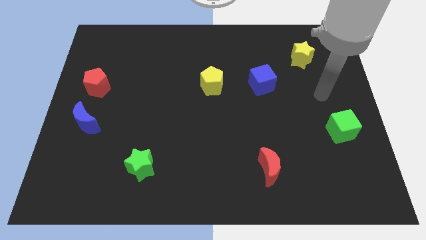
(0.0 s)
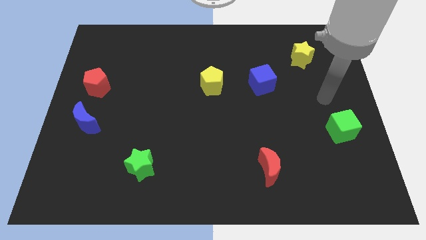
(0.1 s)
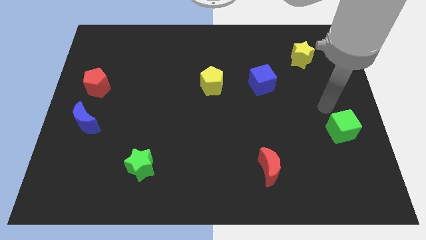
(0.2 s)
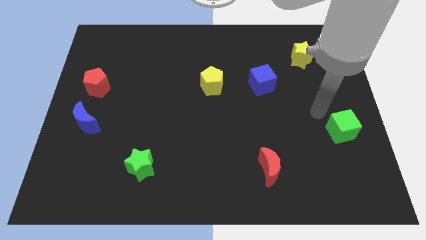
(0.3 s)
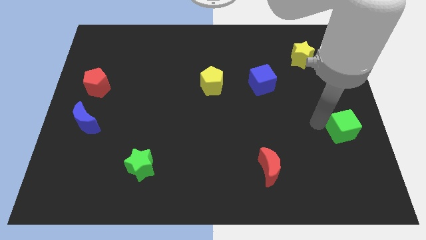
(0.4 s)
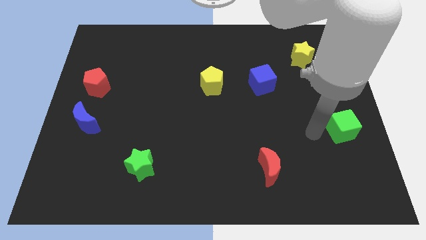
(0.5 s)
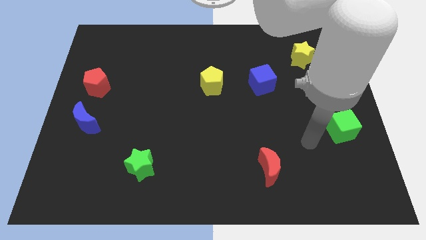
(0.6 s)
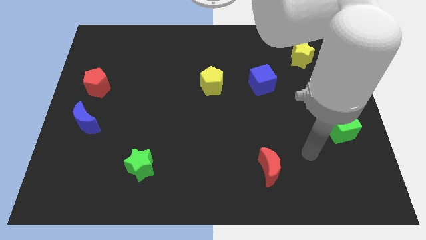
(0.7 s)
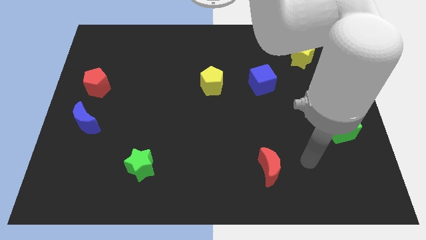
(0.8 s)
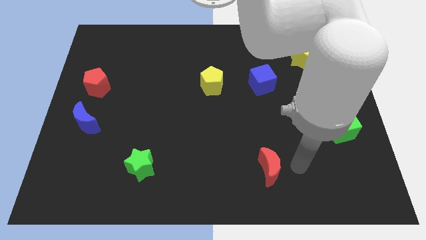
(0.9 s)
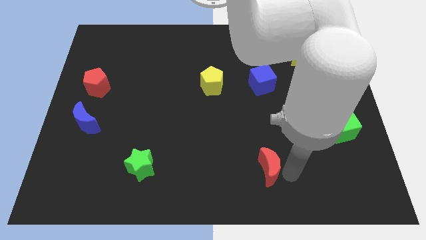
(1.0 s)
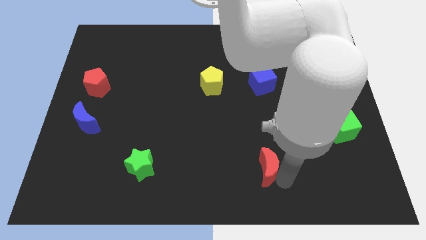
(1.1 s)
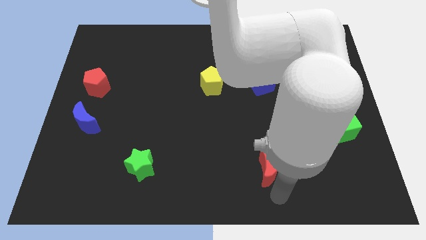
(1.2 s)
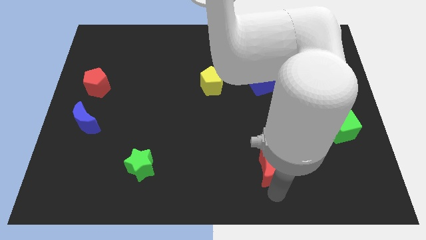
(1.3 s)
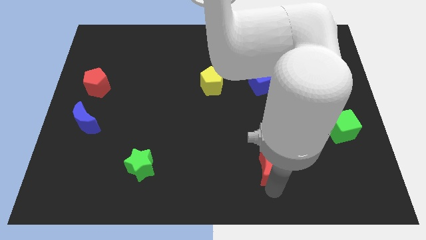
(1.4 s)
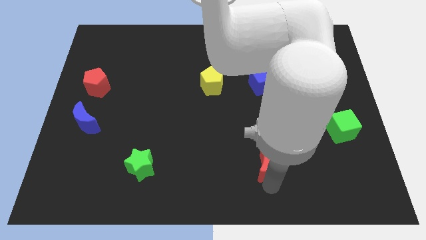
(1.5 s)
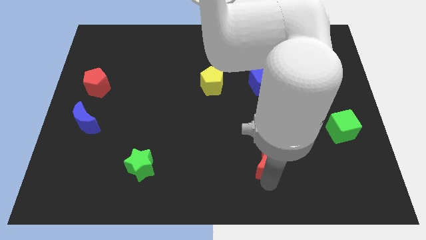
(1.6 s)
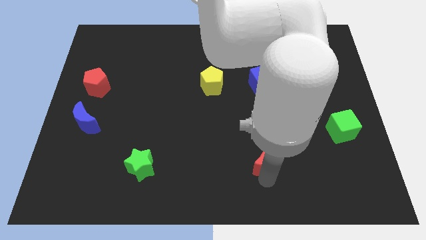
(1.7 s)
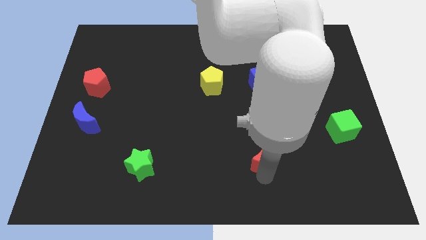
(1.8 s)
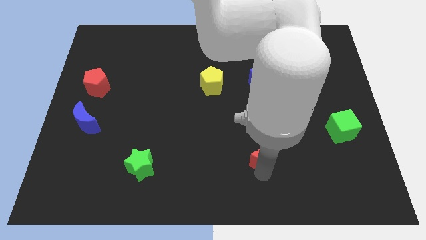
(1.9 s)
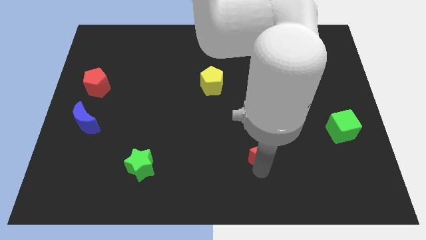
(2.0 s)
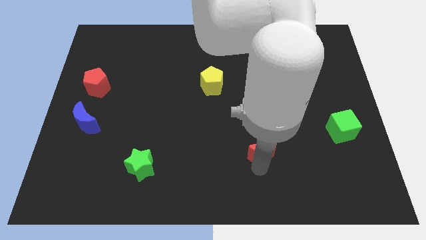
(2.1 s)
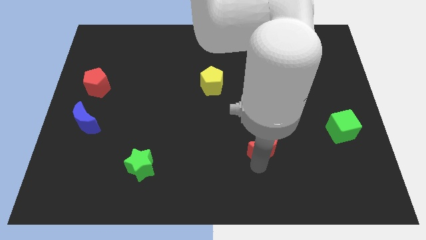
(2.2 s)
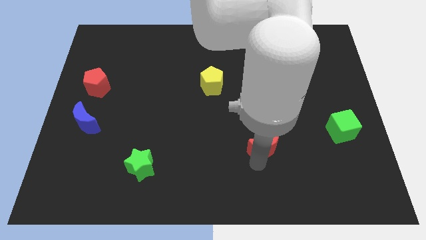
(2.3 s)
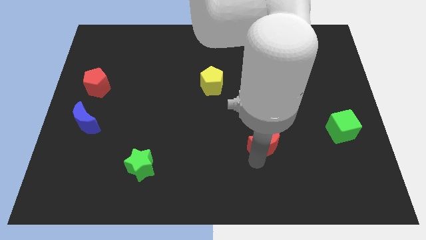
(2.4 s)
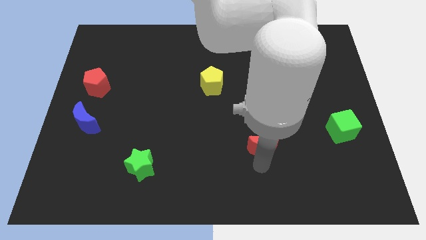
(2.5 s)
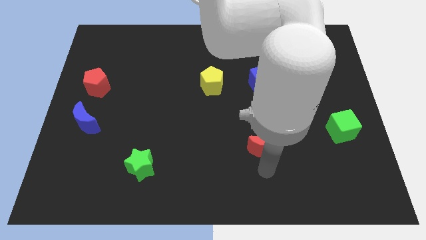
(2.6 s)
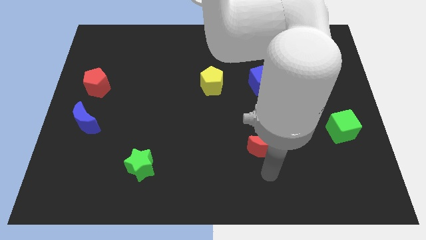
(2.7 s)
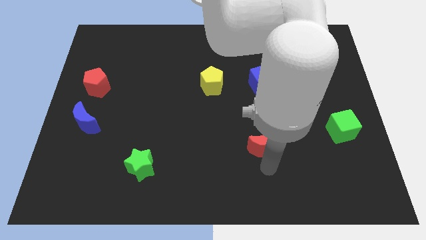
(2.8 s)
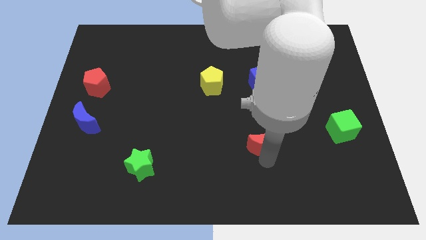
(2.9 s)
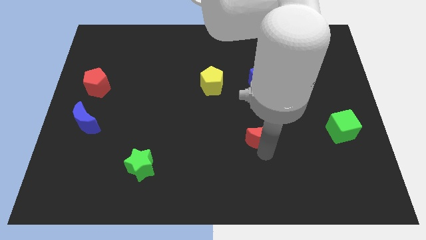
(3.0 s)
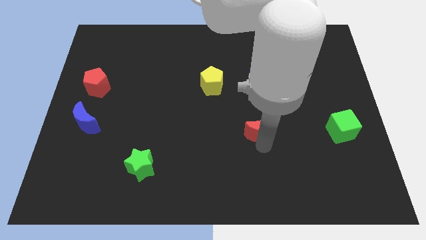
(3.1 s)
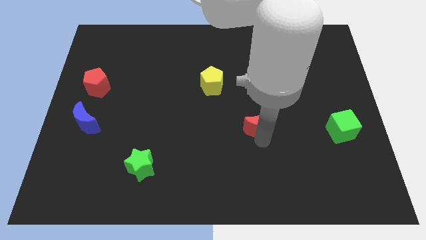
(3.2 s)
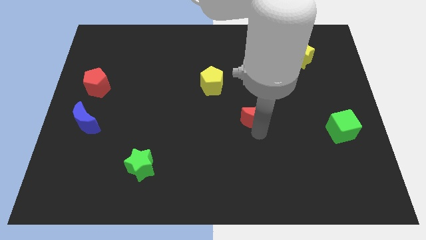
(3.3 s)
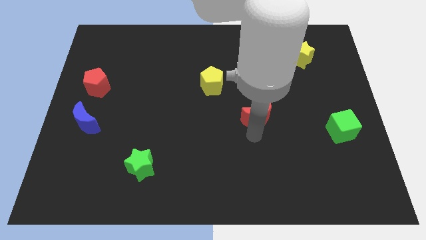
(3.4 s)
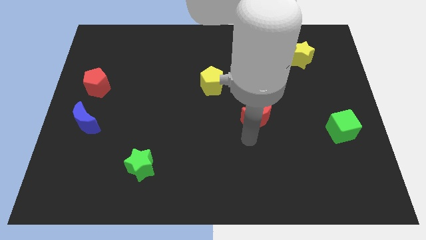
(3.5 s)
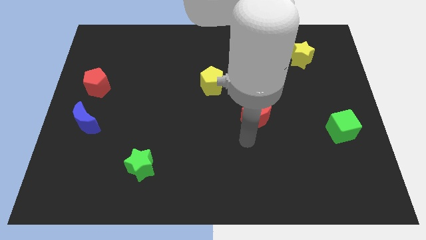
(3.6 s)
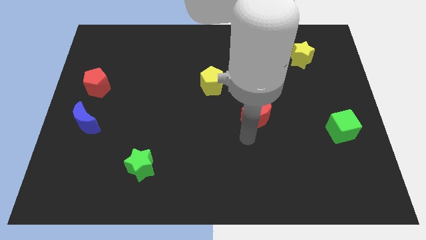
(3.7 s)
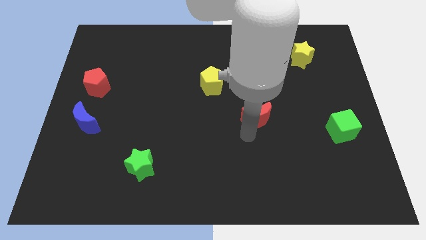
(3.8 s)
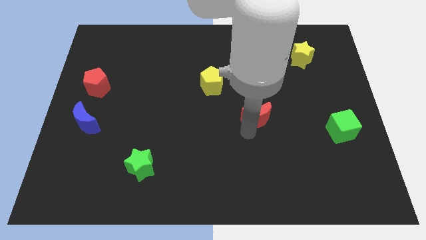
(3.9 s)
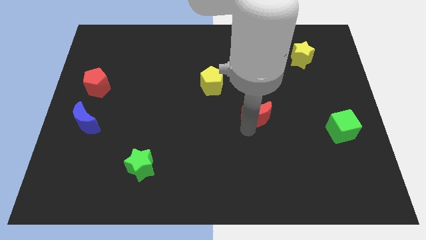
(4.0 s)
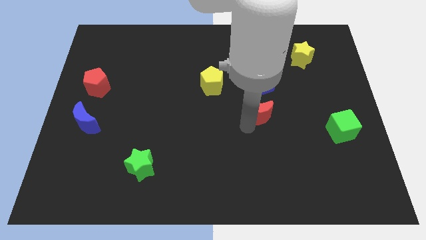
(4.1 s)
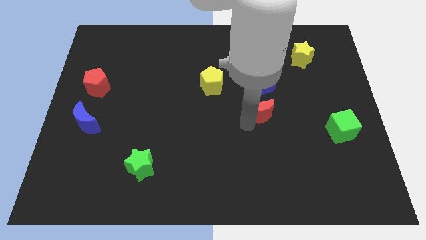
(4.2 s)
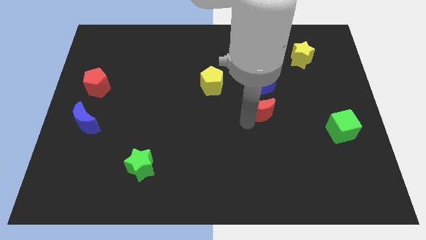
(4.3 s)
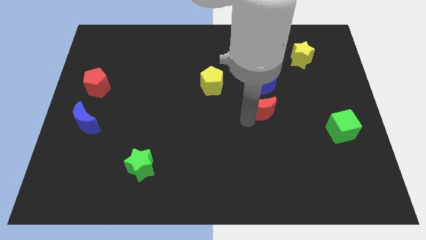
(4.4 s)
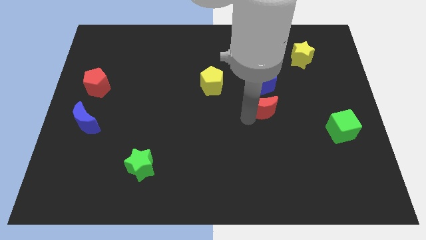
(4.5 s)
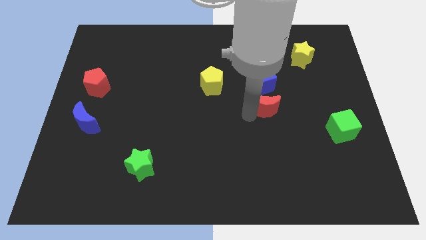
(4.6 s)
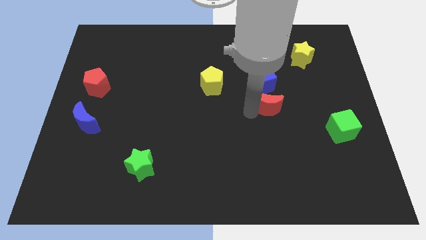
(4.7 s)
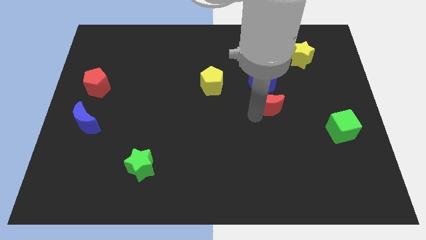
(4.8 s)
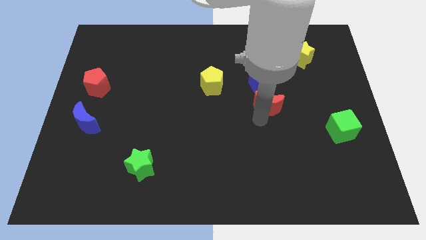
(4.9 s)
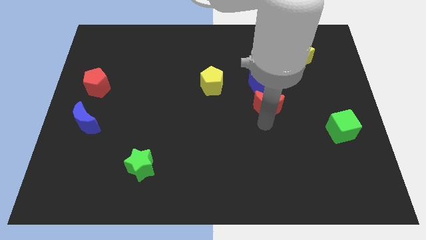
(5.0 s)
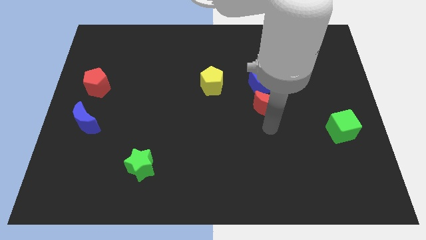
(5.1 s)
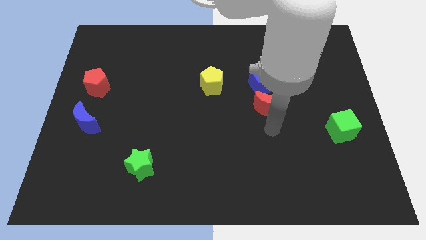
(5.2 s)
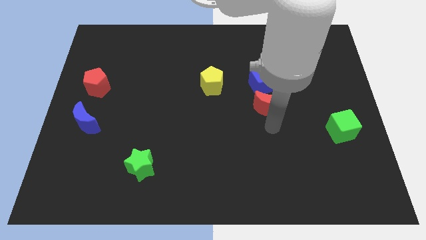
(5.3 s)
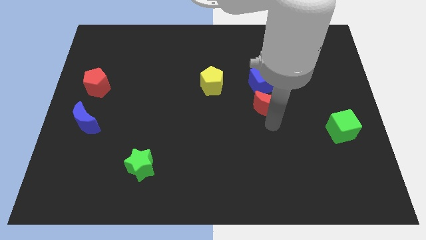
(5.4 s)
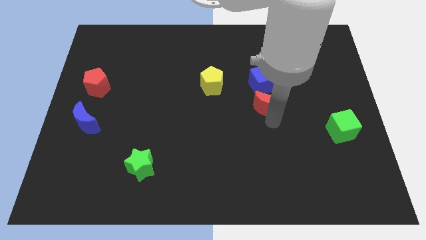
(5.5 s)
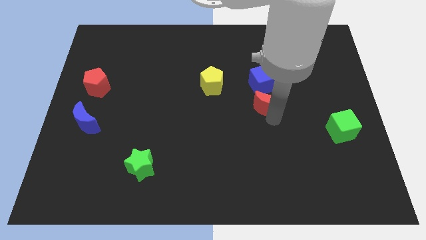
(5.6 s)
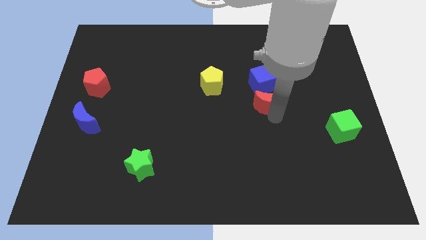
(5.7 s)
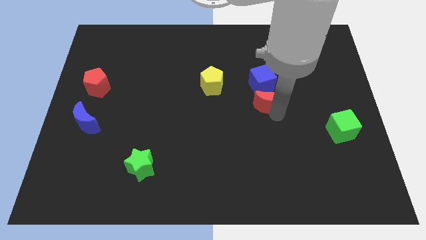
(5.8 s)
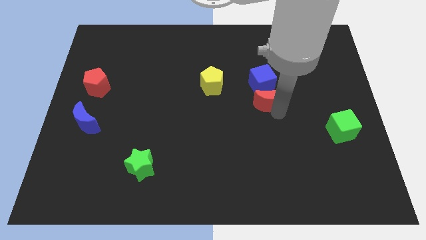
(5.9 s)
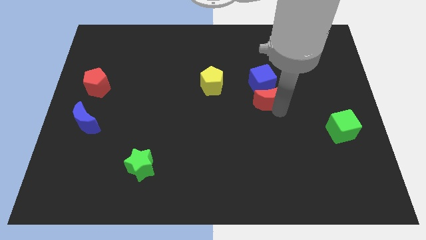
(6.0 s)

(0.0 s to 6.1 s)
move the red moon next to the blue cube

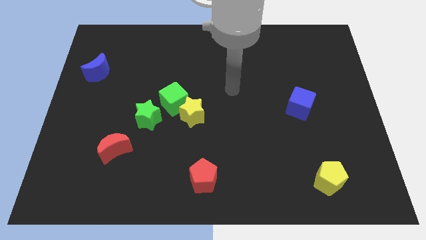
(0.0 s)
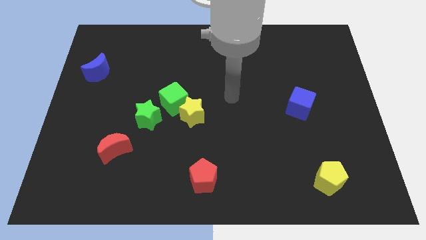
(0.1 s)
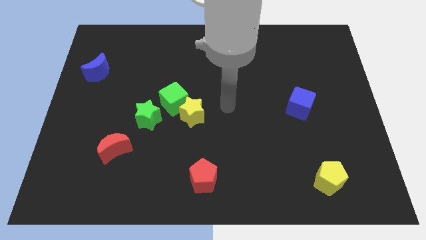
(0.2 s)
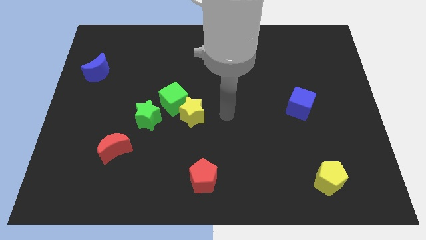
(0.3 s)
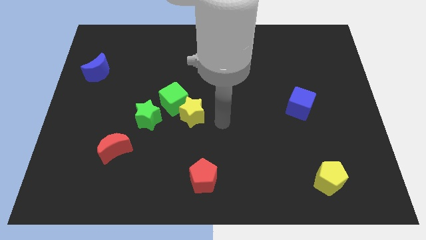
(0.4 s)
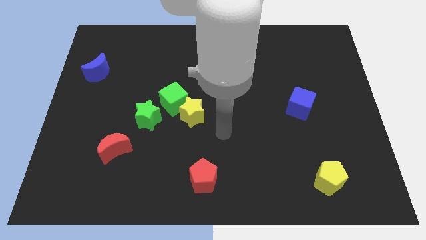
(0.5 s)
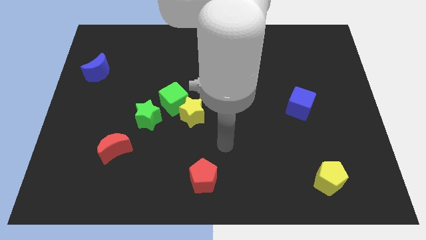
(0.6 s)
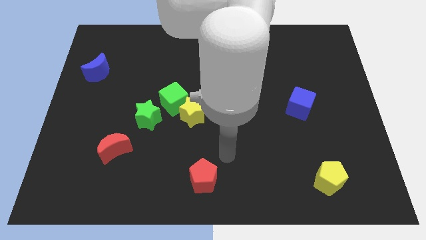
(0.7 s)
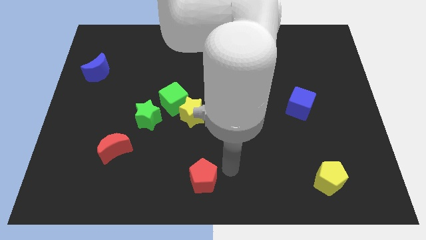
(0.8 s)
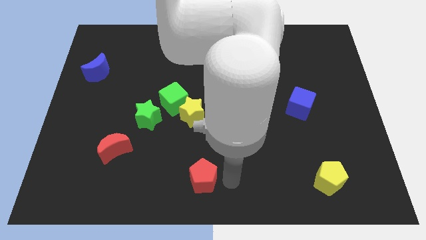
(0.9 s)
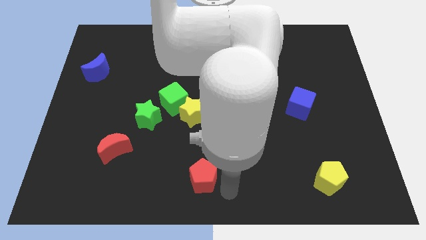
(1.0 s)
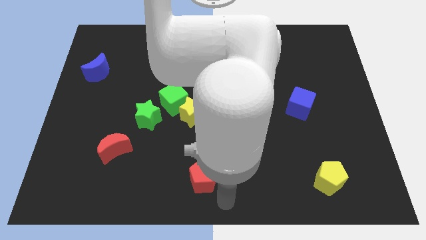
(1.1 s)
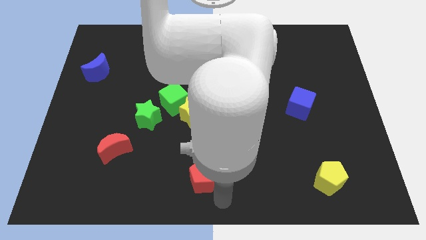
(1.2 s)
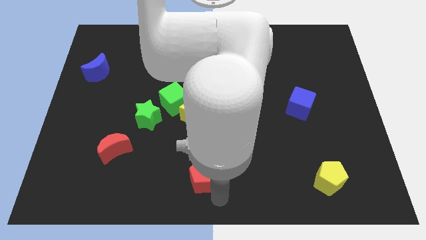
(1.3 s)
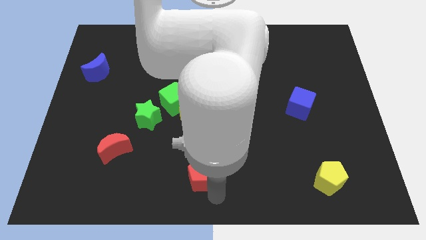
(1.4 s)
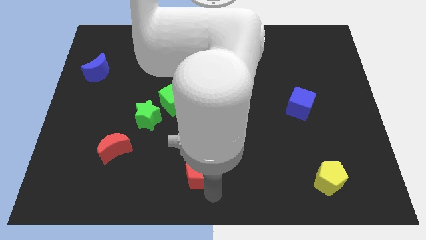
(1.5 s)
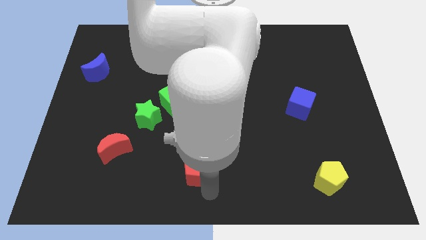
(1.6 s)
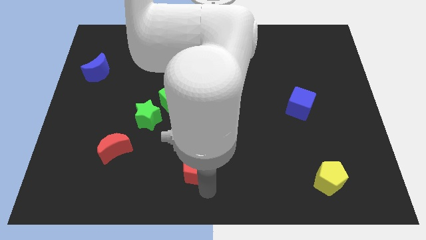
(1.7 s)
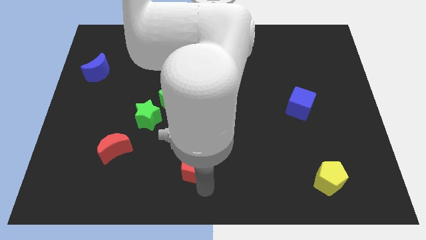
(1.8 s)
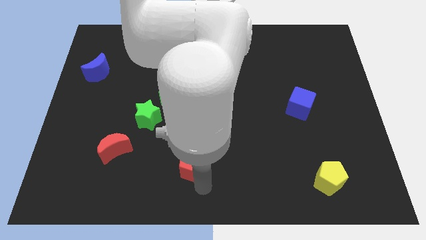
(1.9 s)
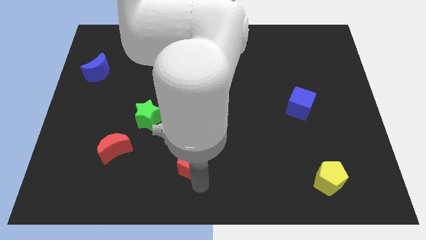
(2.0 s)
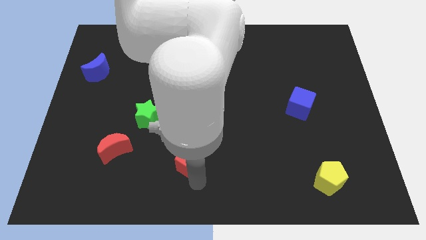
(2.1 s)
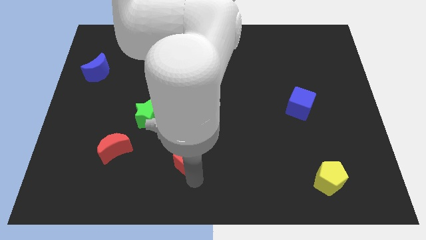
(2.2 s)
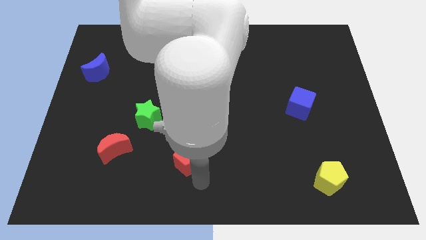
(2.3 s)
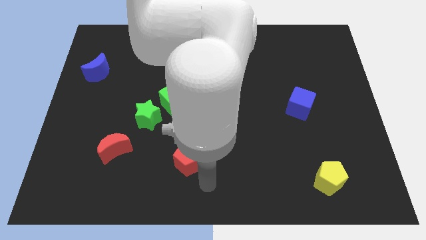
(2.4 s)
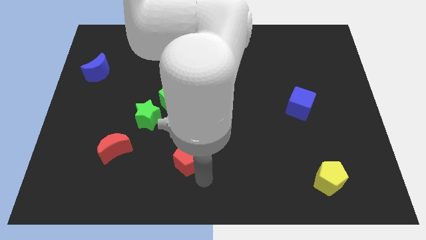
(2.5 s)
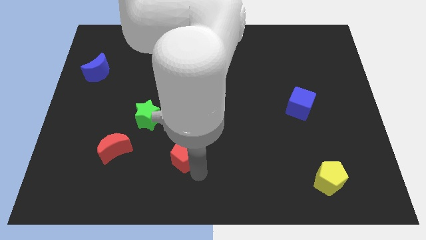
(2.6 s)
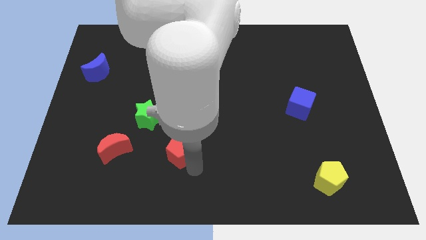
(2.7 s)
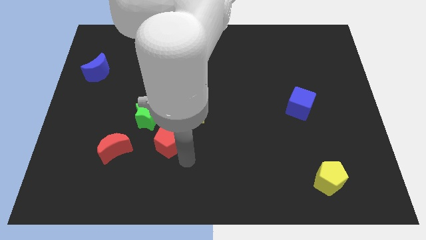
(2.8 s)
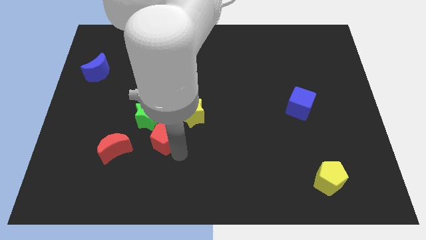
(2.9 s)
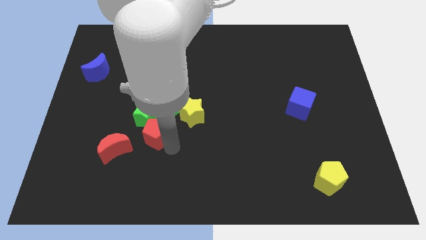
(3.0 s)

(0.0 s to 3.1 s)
put the red pentagon next to the green star
